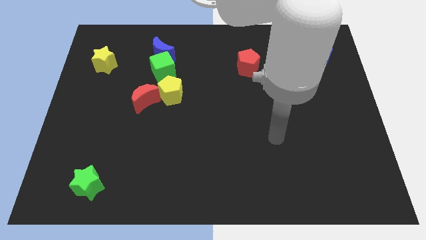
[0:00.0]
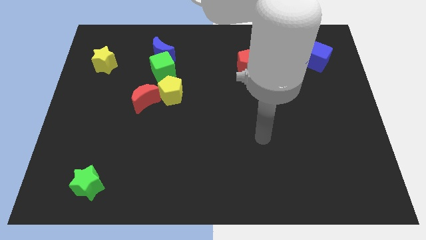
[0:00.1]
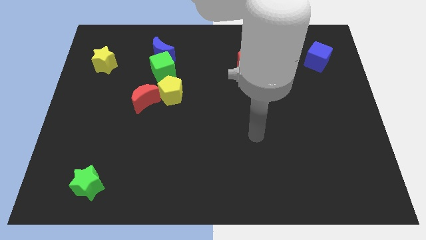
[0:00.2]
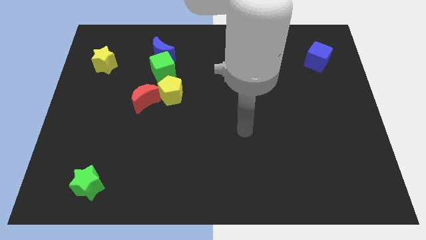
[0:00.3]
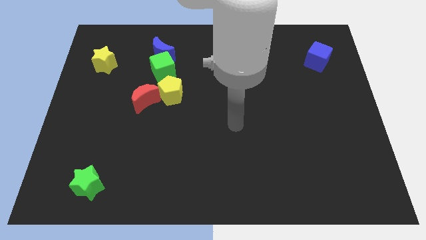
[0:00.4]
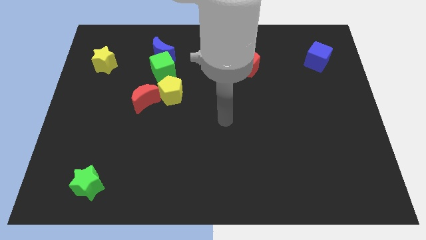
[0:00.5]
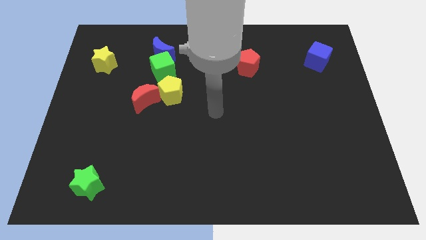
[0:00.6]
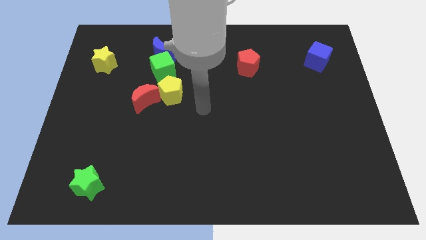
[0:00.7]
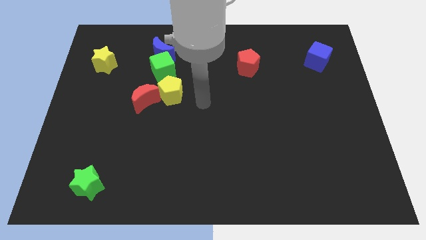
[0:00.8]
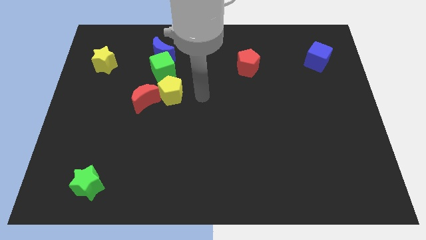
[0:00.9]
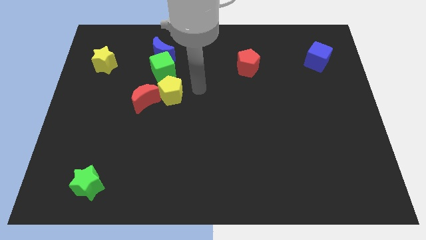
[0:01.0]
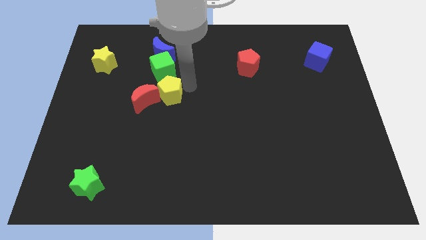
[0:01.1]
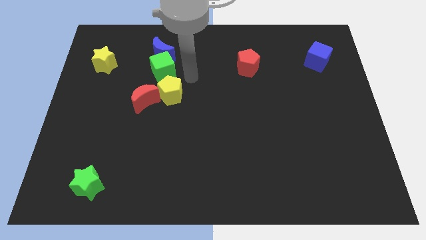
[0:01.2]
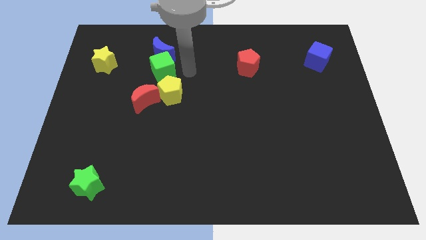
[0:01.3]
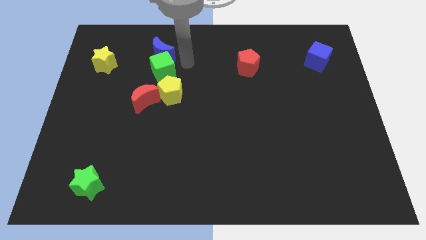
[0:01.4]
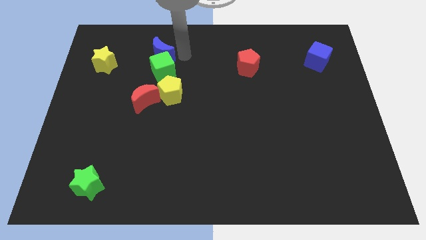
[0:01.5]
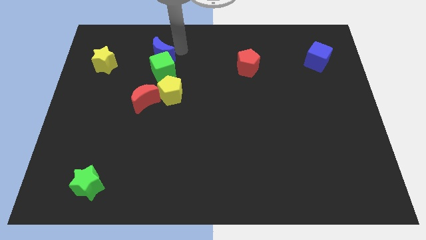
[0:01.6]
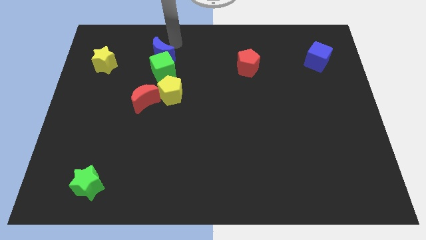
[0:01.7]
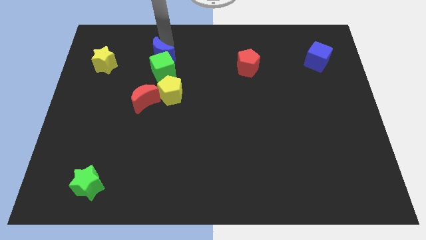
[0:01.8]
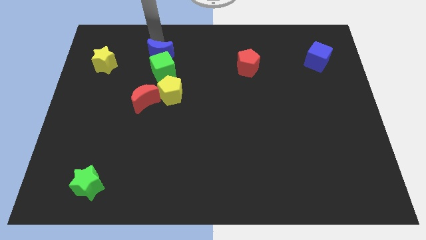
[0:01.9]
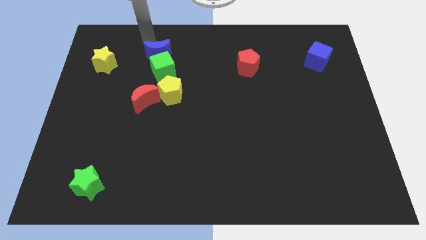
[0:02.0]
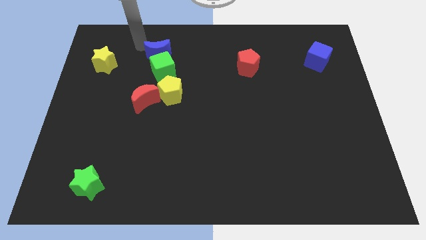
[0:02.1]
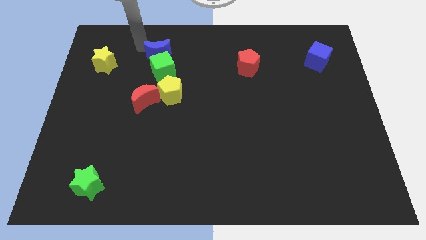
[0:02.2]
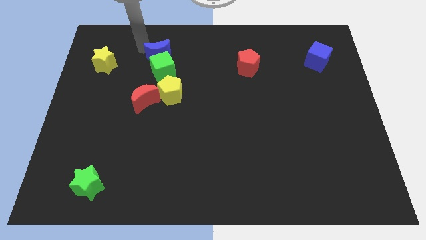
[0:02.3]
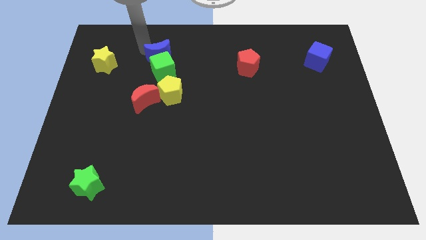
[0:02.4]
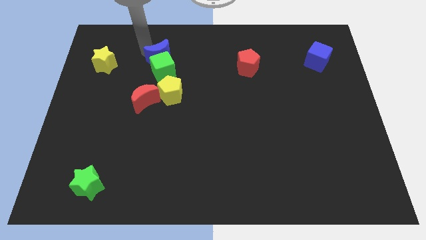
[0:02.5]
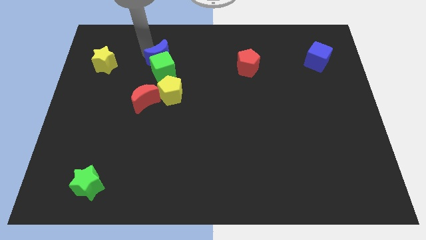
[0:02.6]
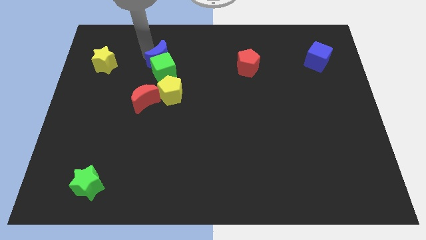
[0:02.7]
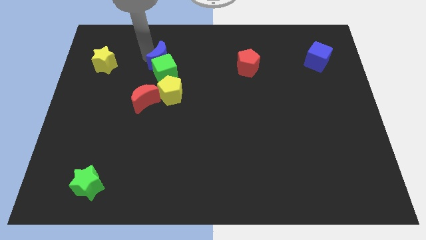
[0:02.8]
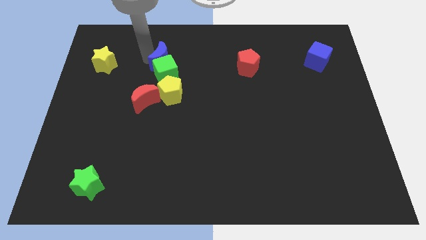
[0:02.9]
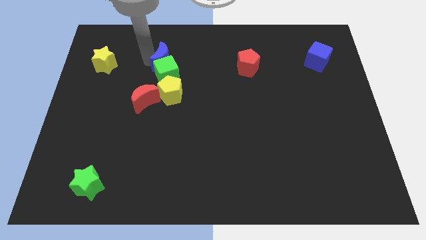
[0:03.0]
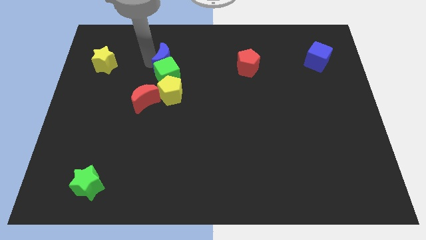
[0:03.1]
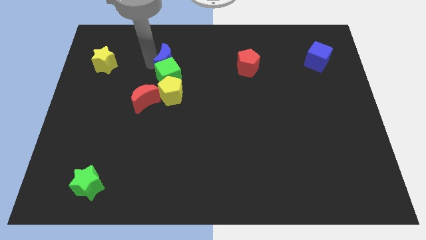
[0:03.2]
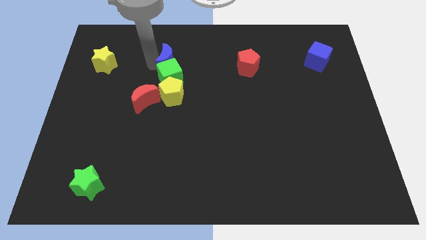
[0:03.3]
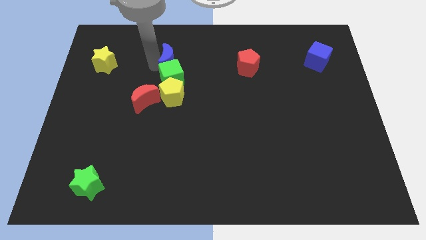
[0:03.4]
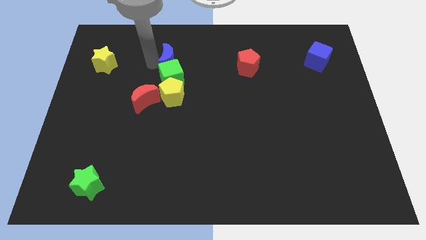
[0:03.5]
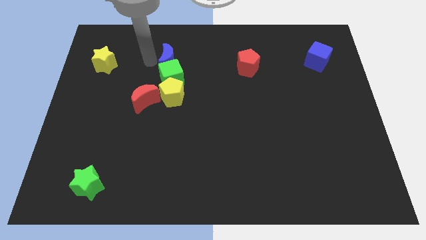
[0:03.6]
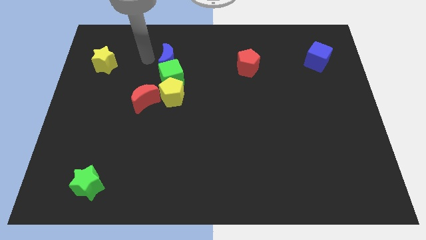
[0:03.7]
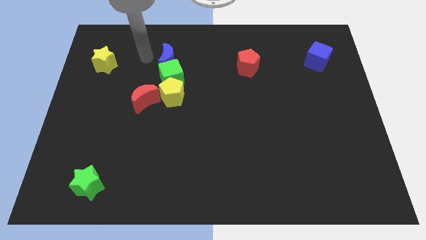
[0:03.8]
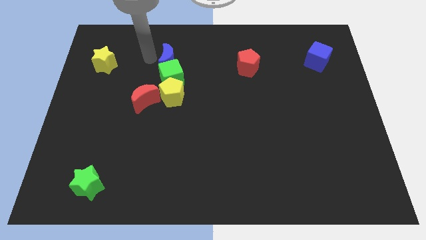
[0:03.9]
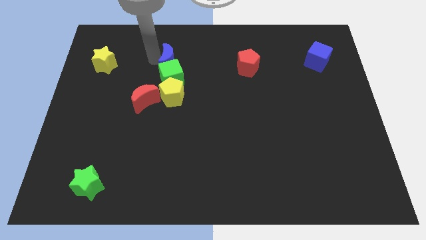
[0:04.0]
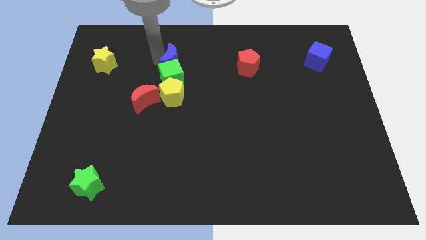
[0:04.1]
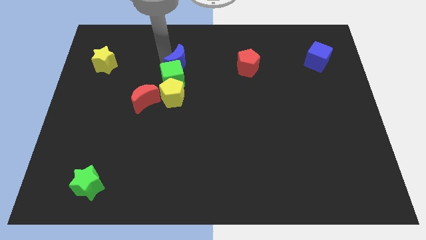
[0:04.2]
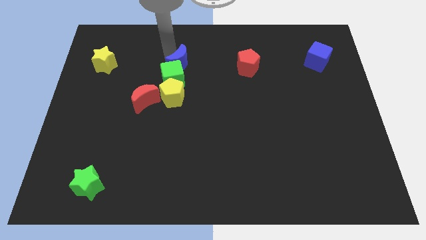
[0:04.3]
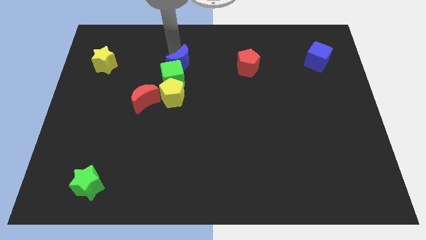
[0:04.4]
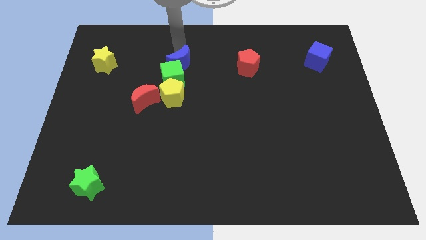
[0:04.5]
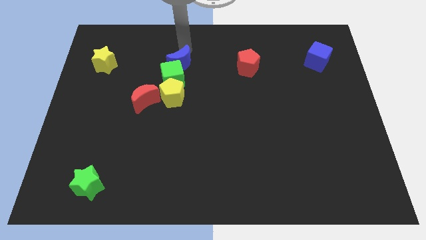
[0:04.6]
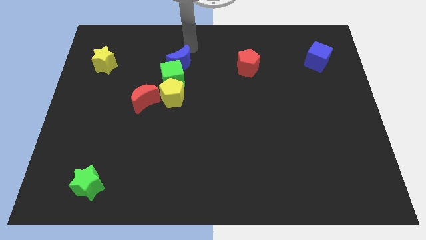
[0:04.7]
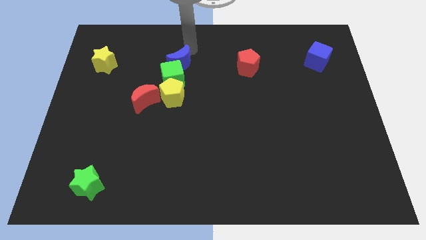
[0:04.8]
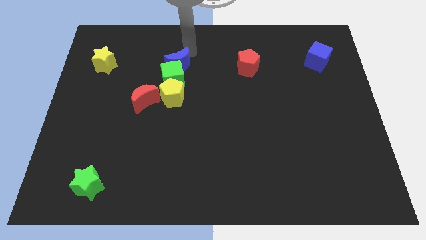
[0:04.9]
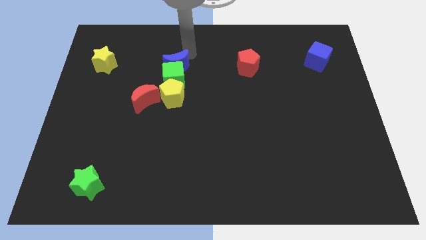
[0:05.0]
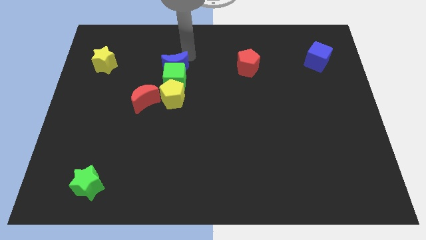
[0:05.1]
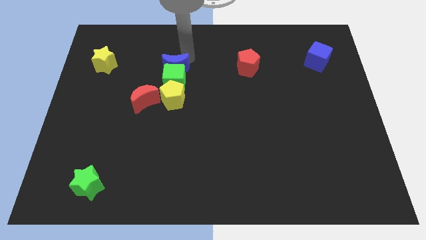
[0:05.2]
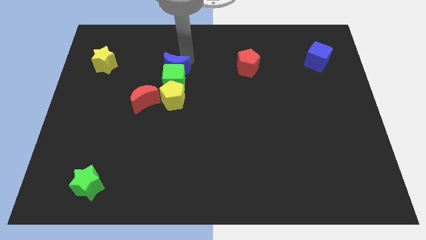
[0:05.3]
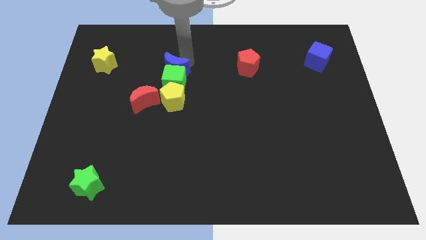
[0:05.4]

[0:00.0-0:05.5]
slide the blue moon diagonally up and to the right of the red moon

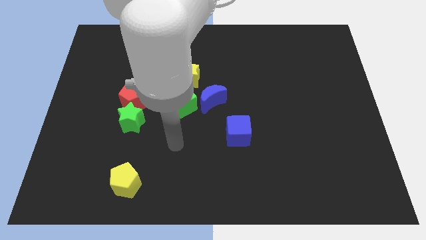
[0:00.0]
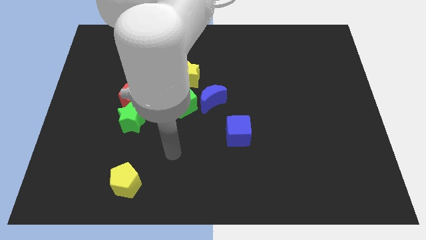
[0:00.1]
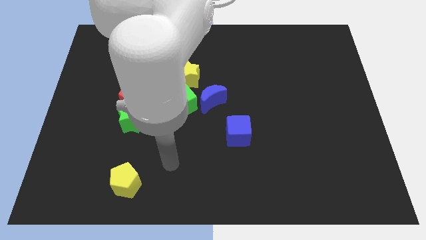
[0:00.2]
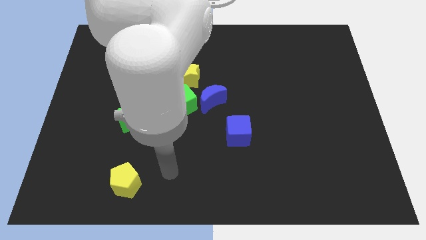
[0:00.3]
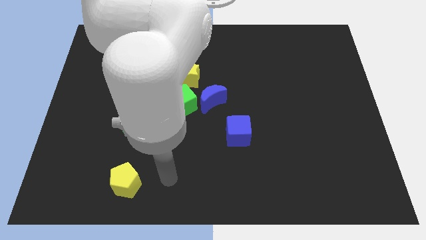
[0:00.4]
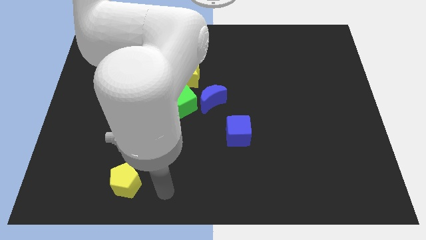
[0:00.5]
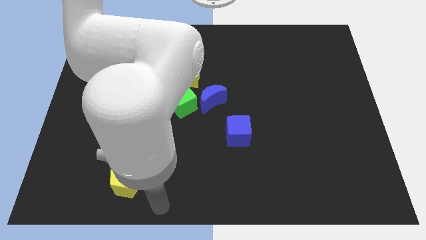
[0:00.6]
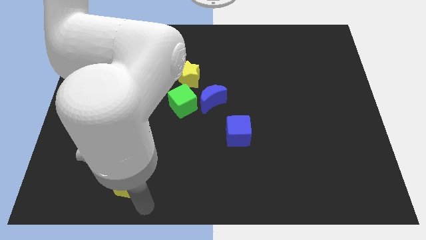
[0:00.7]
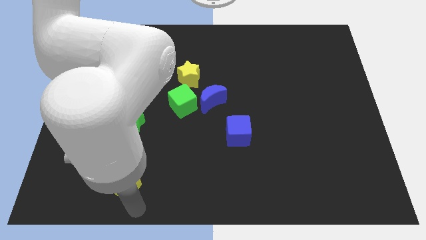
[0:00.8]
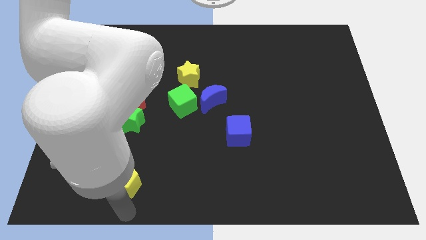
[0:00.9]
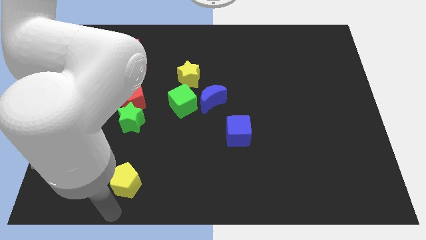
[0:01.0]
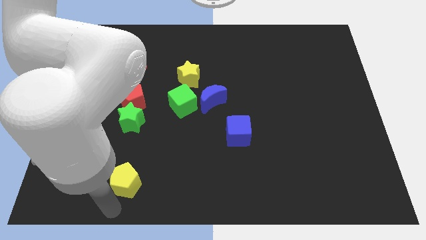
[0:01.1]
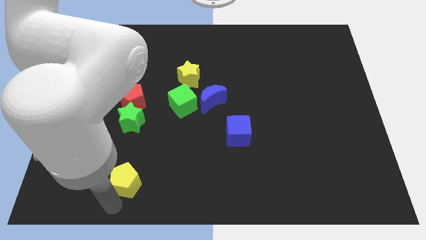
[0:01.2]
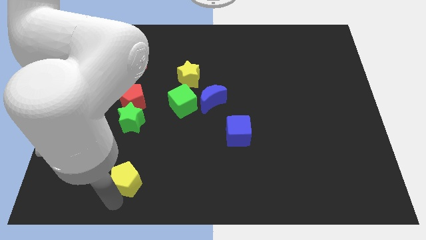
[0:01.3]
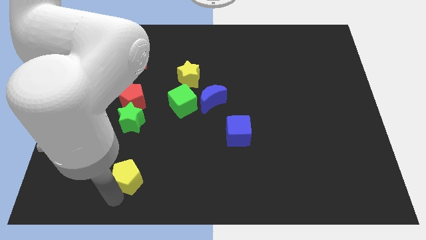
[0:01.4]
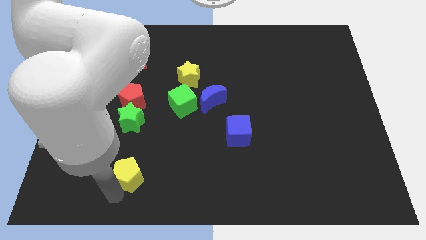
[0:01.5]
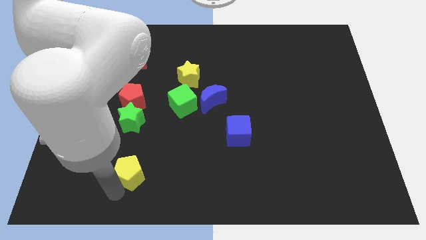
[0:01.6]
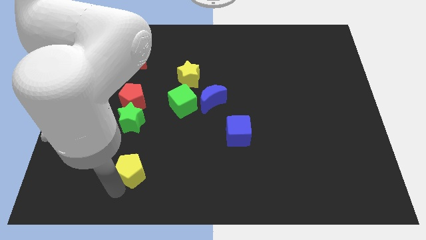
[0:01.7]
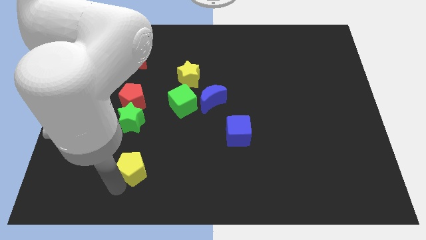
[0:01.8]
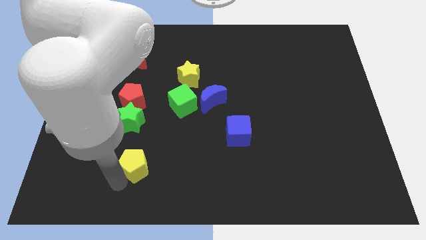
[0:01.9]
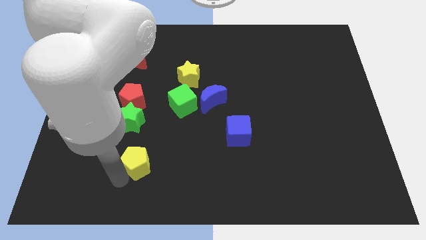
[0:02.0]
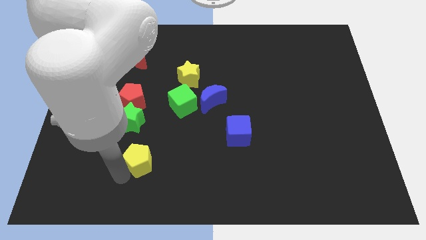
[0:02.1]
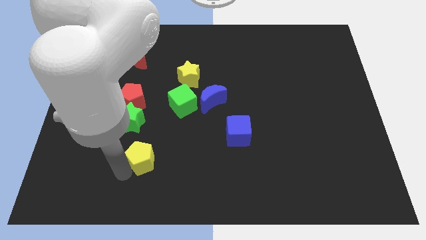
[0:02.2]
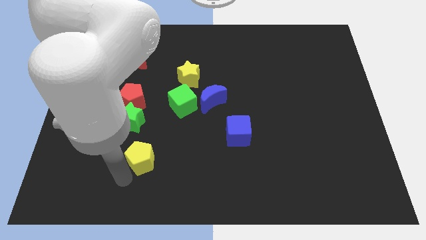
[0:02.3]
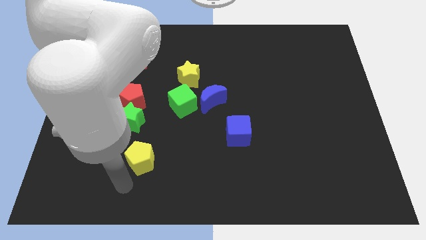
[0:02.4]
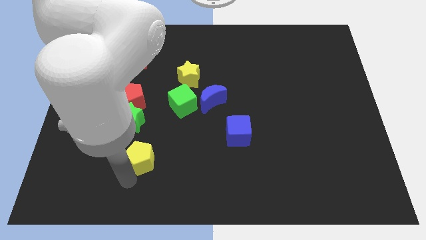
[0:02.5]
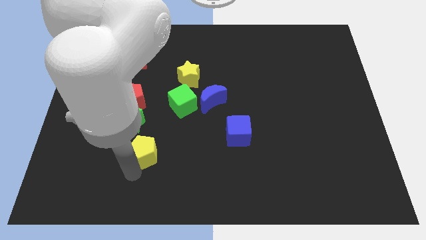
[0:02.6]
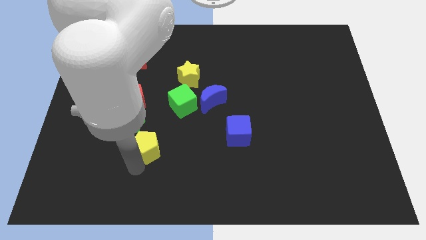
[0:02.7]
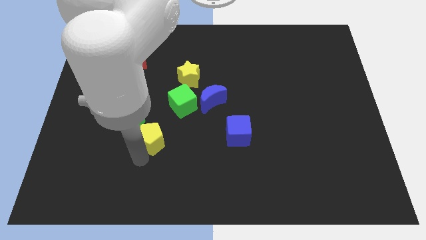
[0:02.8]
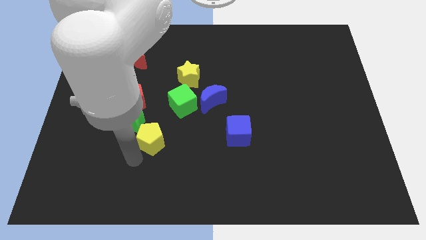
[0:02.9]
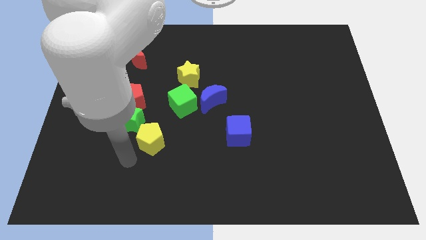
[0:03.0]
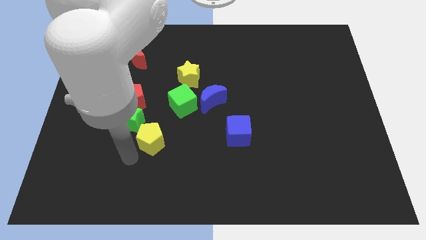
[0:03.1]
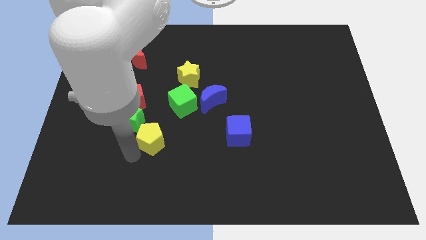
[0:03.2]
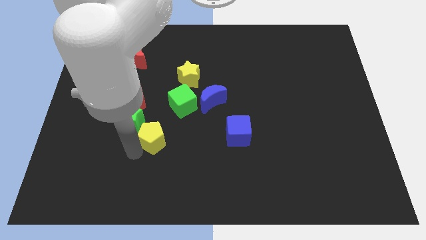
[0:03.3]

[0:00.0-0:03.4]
slide the yellow pentagon to the right side of the green star
